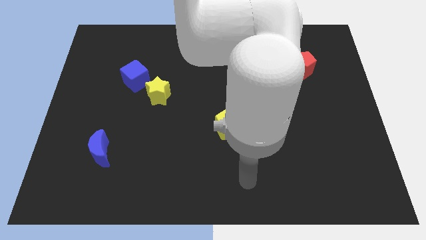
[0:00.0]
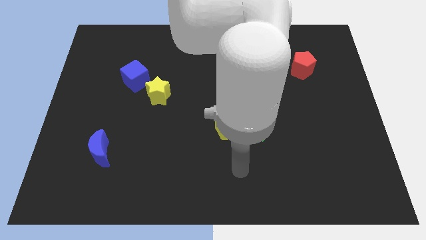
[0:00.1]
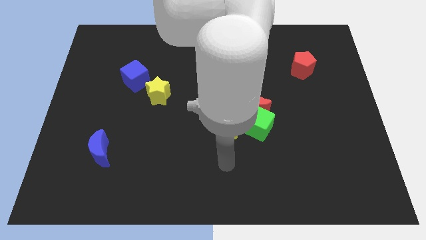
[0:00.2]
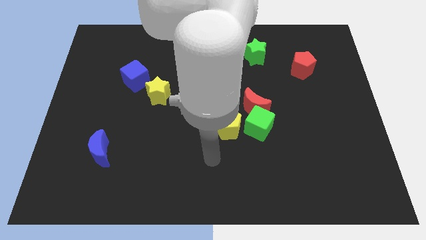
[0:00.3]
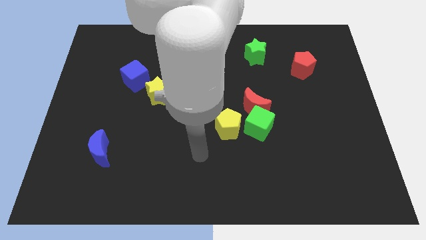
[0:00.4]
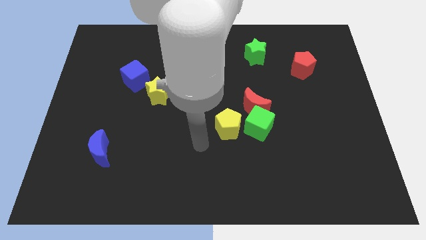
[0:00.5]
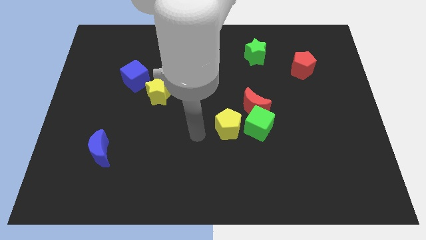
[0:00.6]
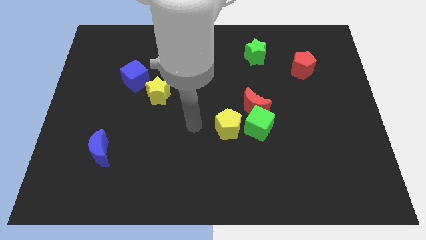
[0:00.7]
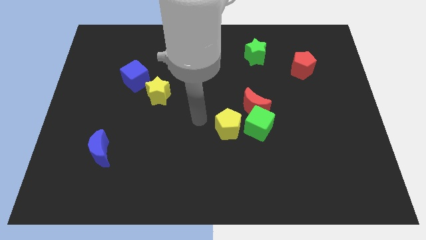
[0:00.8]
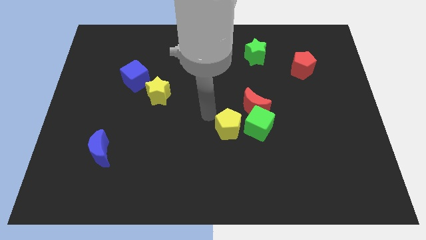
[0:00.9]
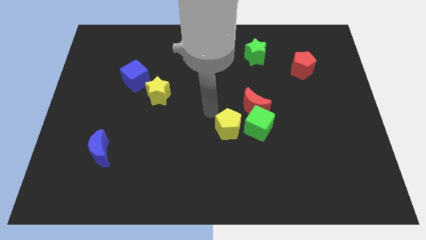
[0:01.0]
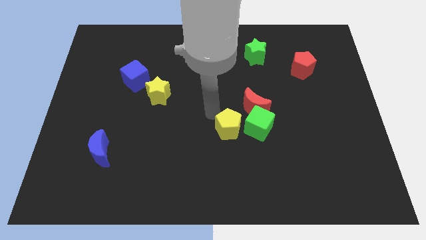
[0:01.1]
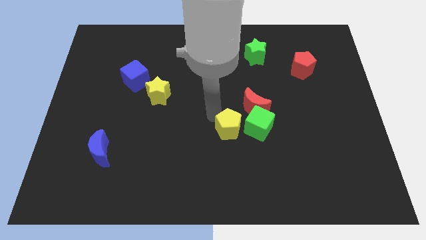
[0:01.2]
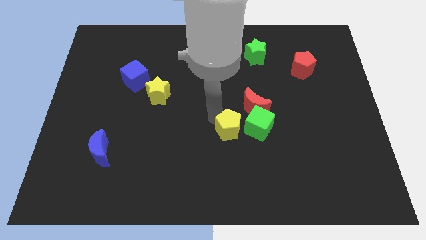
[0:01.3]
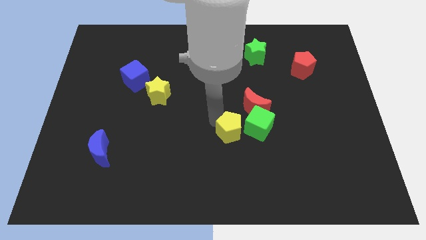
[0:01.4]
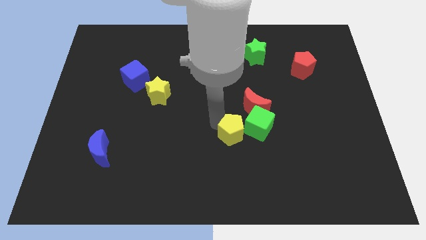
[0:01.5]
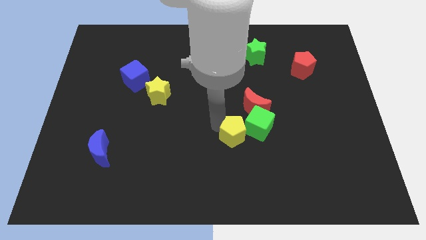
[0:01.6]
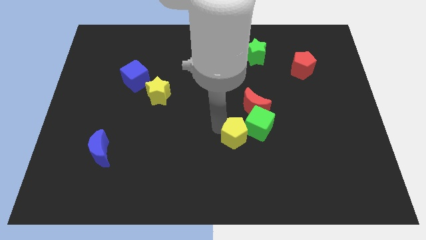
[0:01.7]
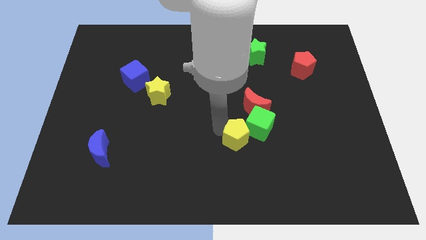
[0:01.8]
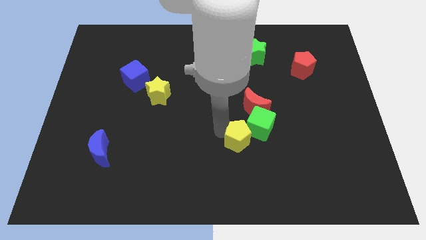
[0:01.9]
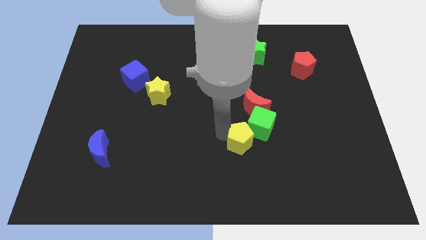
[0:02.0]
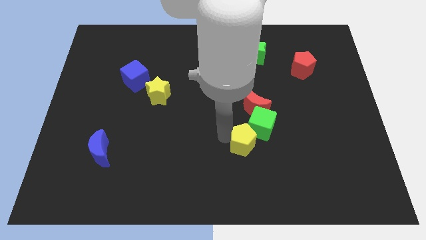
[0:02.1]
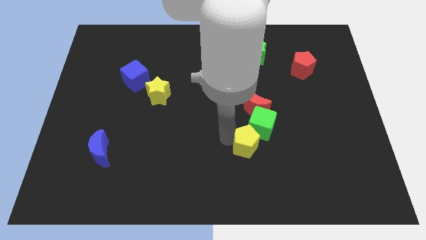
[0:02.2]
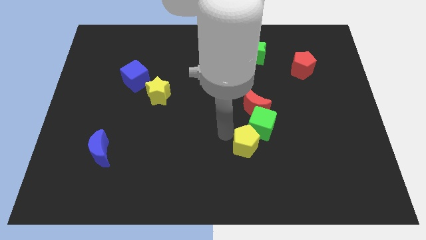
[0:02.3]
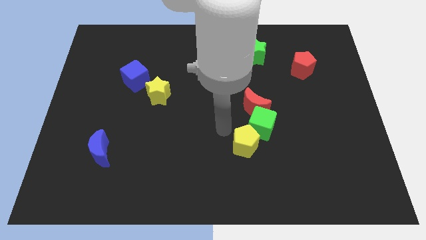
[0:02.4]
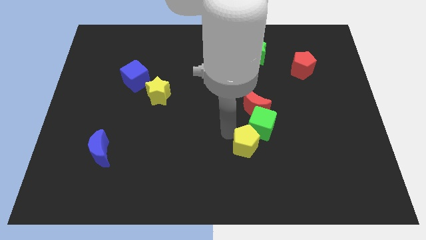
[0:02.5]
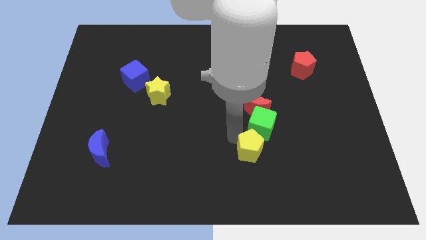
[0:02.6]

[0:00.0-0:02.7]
slightly move the yellow pentagon downwards and to the right diagonally

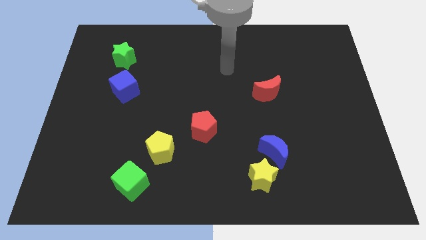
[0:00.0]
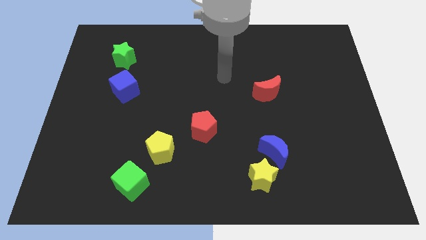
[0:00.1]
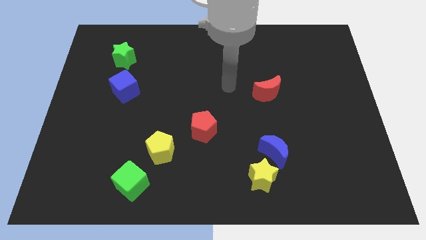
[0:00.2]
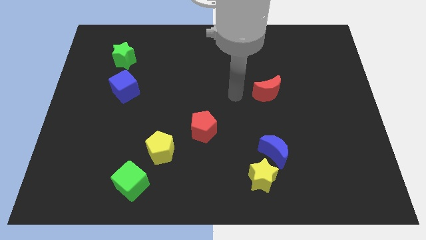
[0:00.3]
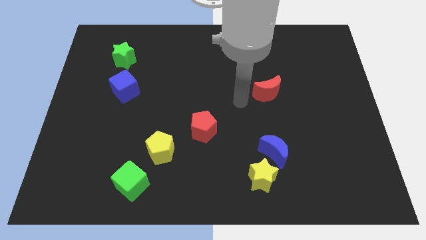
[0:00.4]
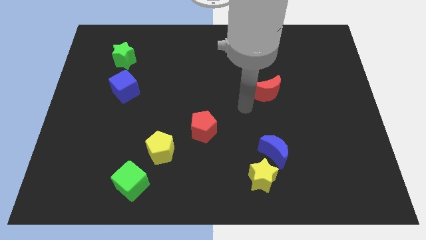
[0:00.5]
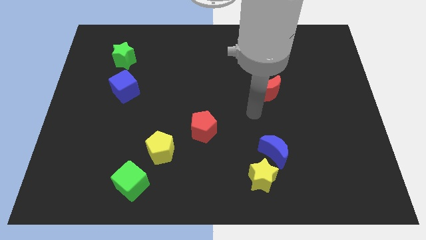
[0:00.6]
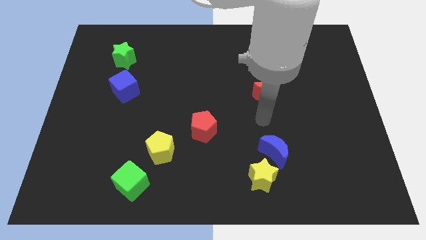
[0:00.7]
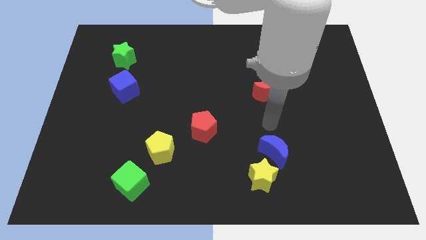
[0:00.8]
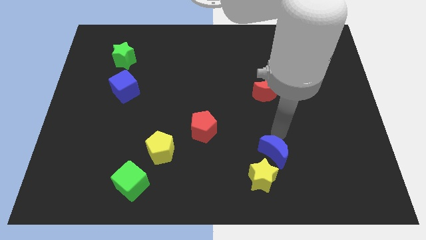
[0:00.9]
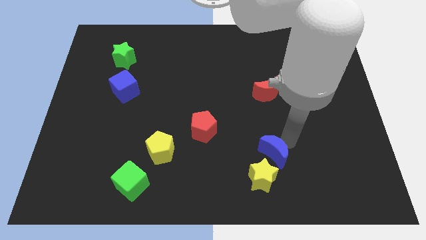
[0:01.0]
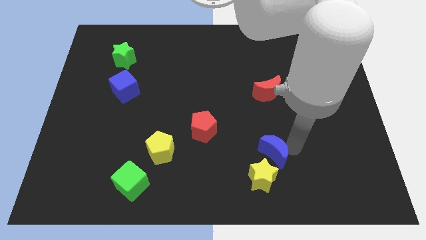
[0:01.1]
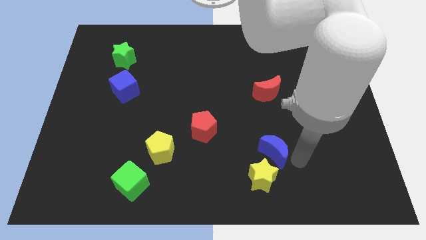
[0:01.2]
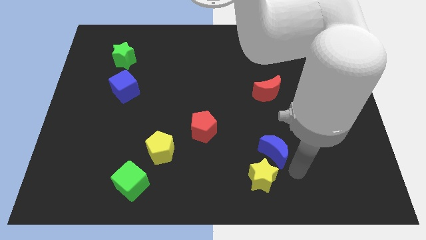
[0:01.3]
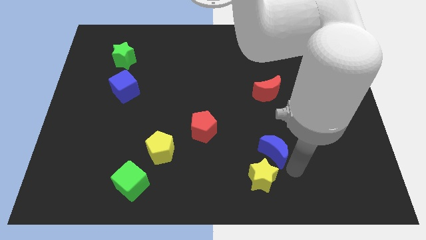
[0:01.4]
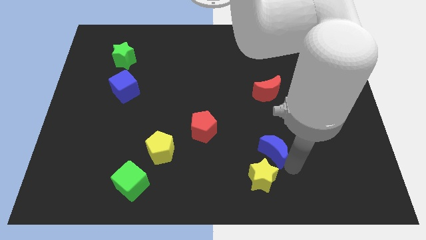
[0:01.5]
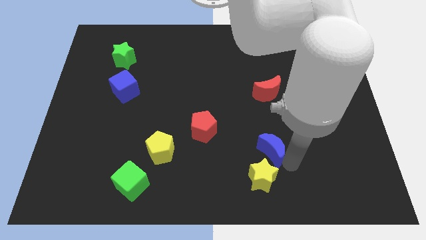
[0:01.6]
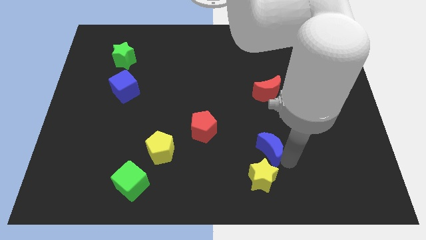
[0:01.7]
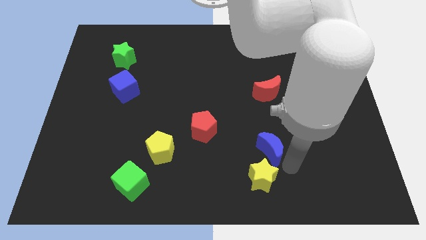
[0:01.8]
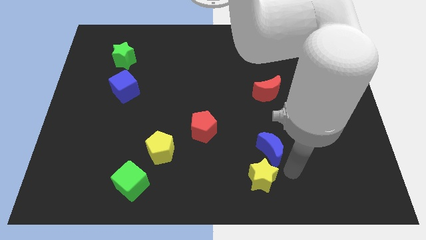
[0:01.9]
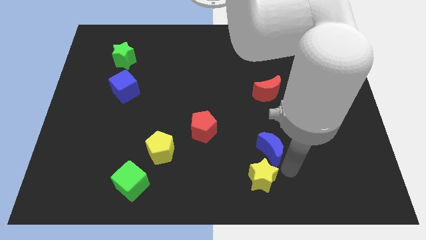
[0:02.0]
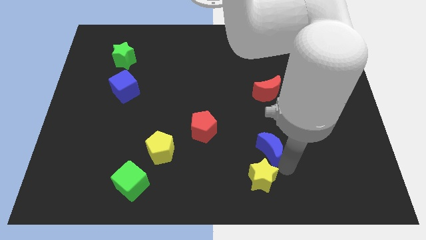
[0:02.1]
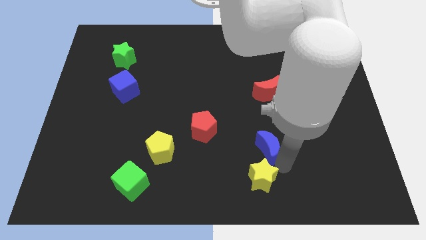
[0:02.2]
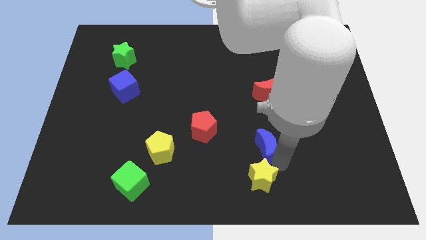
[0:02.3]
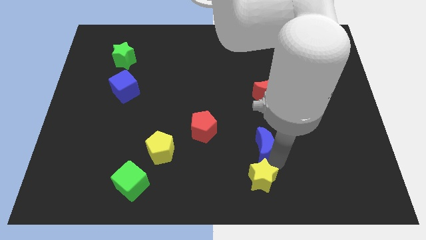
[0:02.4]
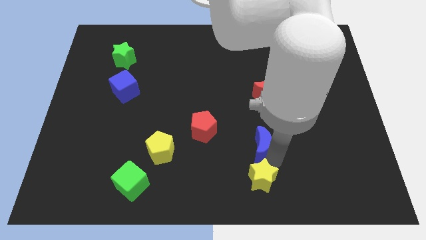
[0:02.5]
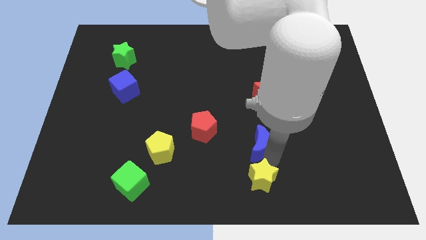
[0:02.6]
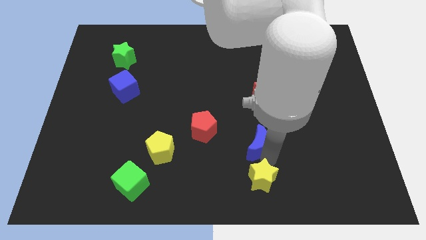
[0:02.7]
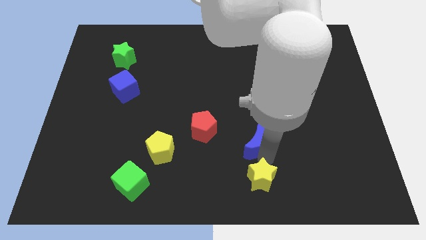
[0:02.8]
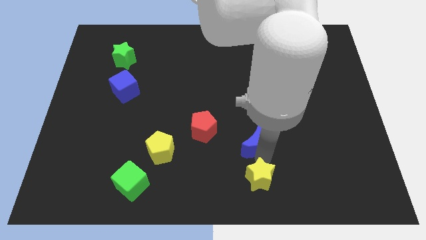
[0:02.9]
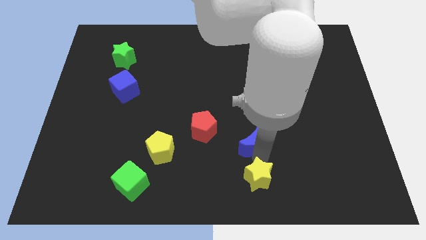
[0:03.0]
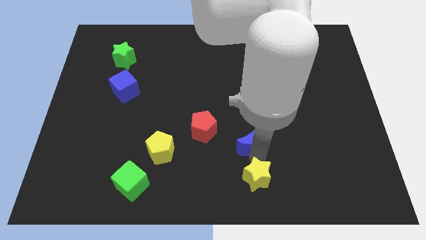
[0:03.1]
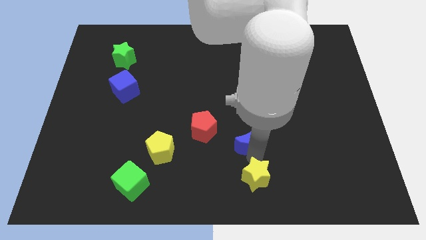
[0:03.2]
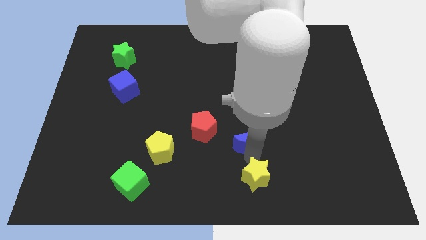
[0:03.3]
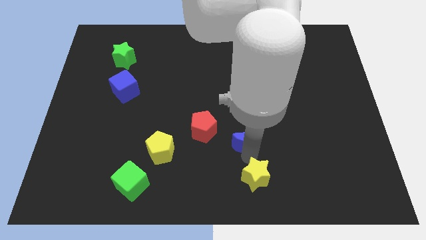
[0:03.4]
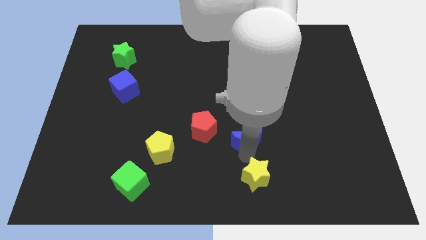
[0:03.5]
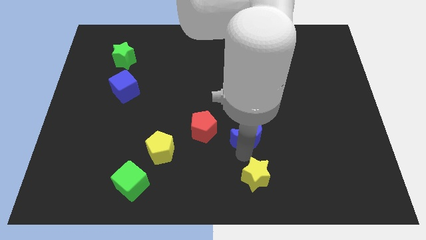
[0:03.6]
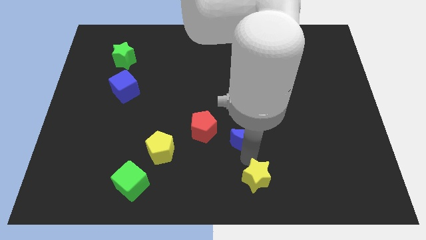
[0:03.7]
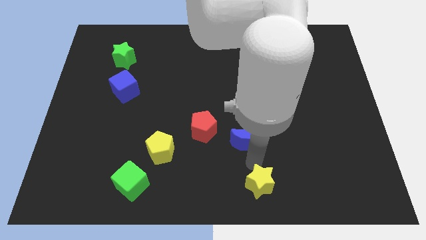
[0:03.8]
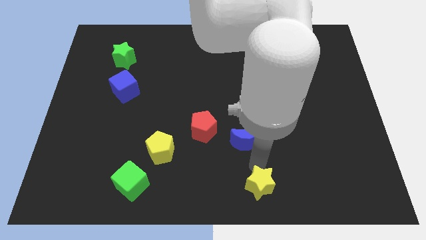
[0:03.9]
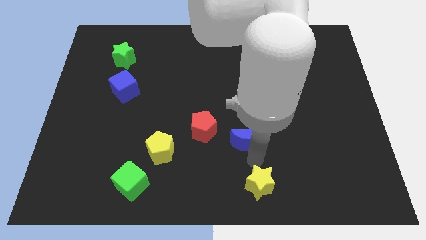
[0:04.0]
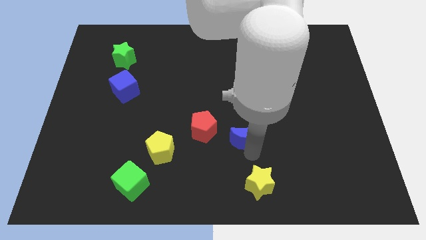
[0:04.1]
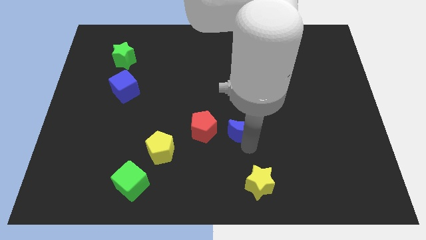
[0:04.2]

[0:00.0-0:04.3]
push the blue moon up and left a little

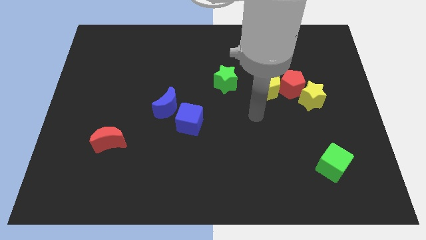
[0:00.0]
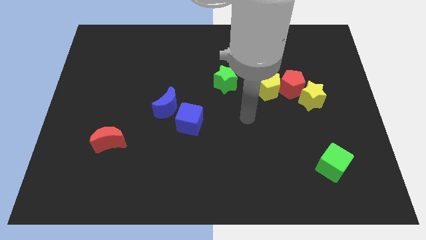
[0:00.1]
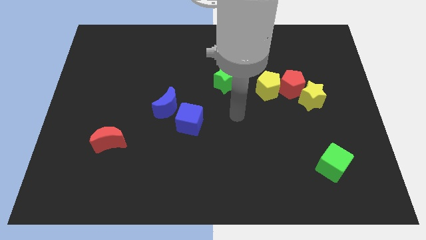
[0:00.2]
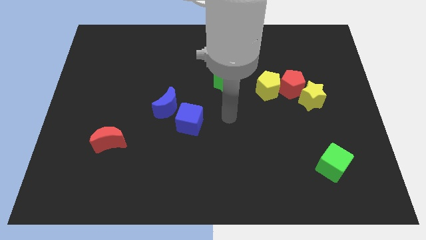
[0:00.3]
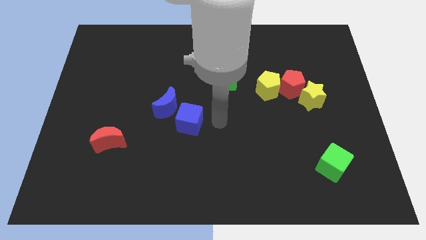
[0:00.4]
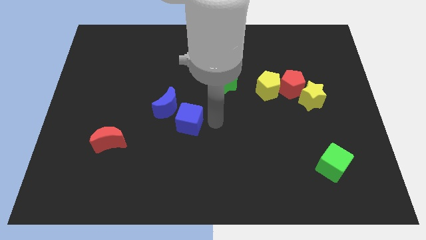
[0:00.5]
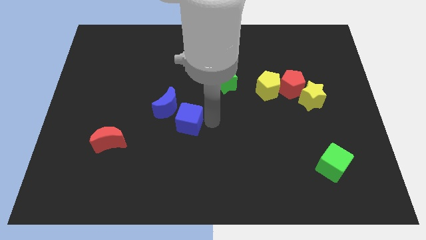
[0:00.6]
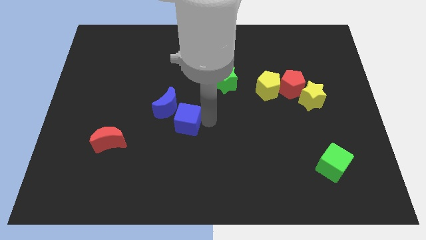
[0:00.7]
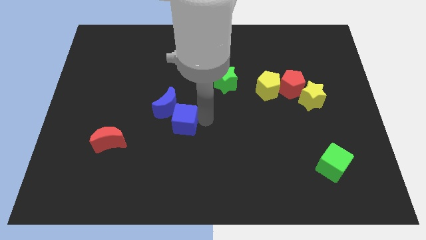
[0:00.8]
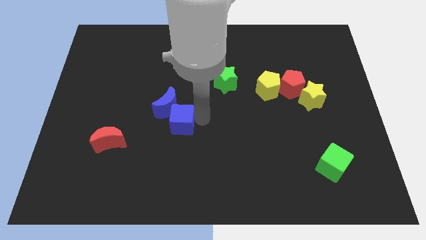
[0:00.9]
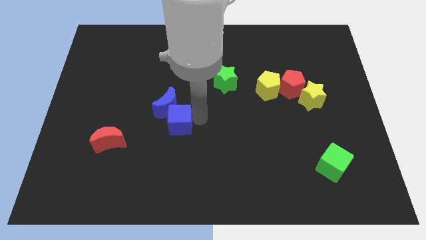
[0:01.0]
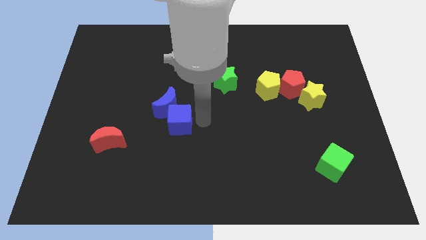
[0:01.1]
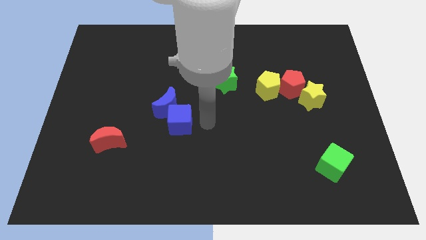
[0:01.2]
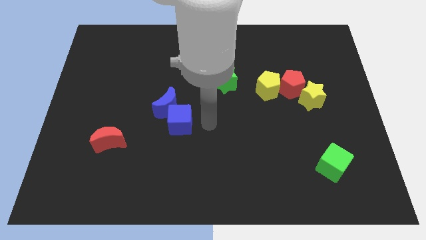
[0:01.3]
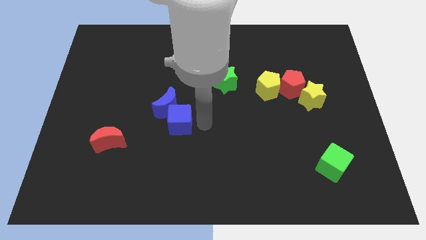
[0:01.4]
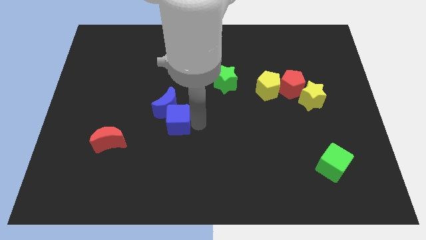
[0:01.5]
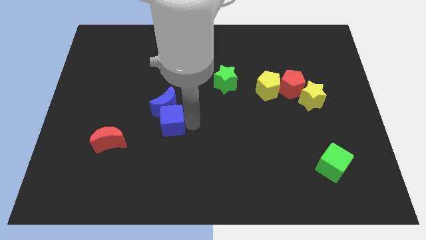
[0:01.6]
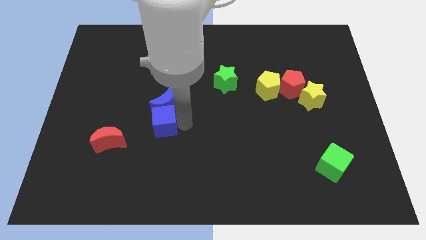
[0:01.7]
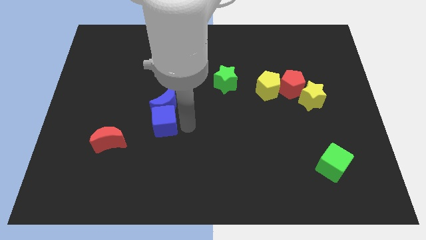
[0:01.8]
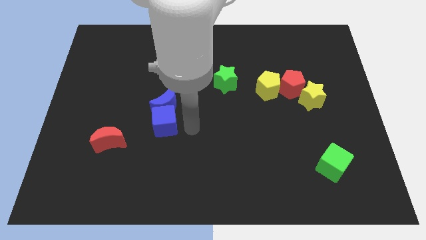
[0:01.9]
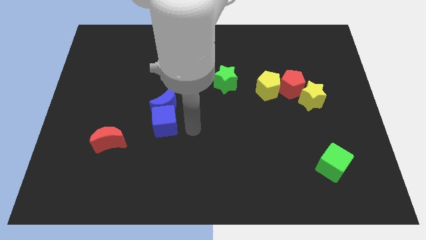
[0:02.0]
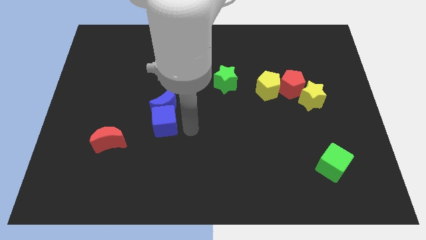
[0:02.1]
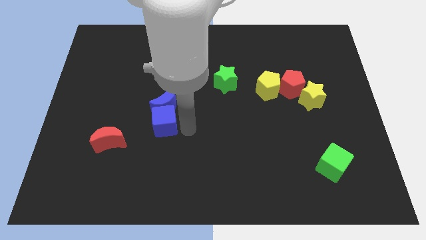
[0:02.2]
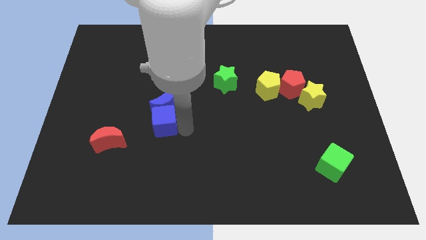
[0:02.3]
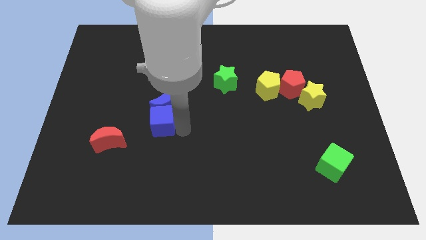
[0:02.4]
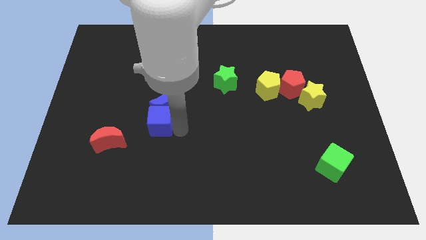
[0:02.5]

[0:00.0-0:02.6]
slide the blue cube a little to the left
